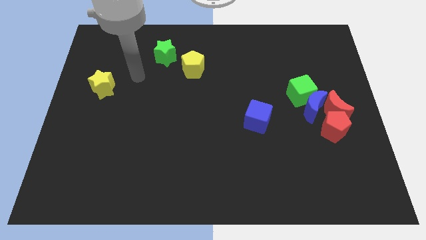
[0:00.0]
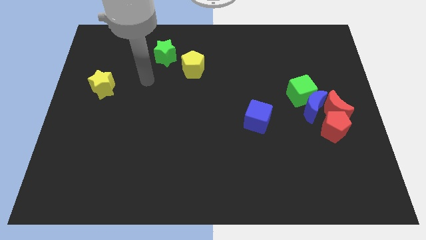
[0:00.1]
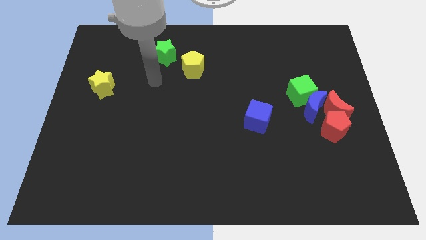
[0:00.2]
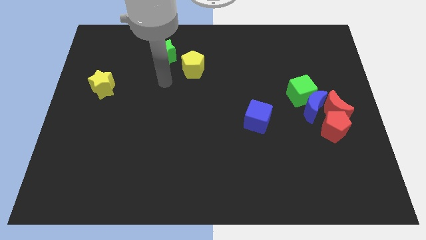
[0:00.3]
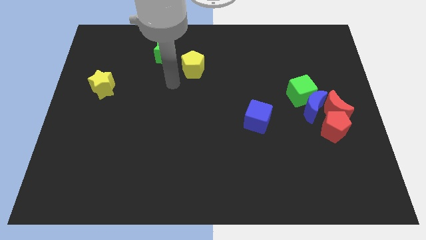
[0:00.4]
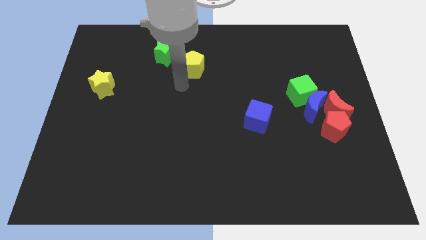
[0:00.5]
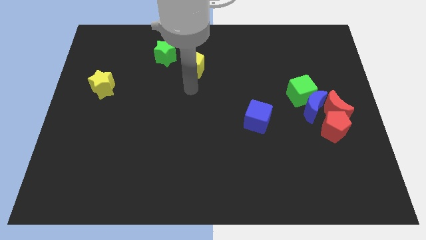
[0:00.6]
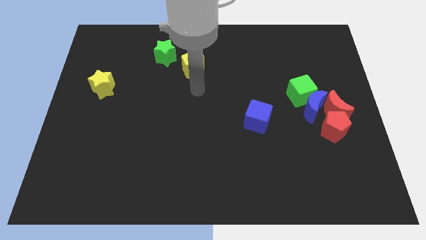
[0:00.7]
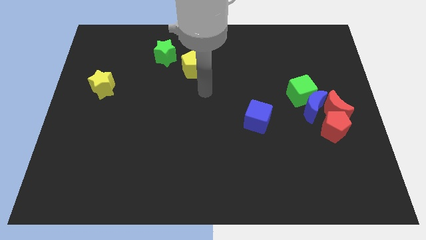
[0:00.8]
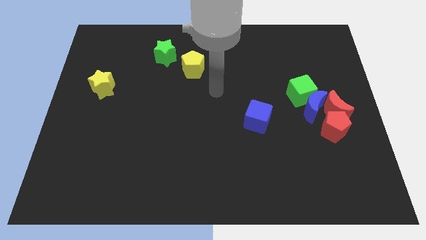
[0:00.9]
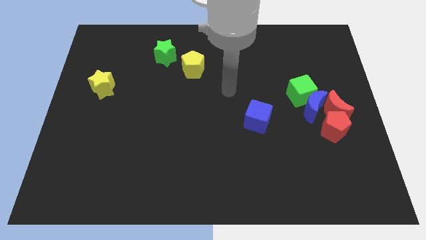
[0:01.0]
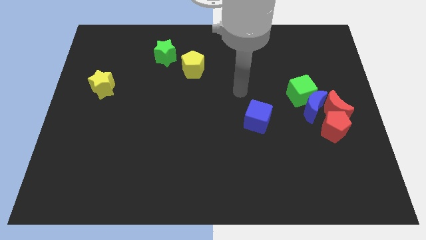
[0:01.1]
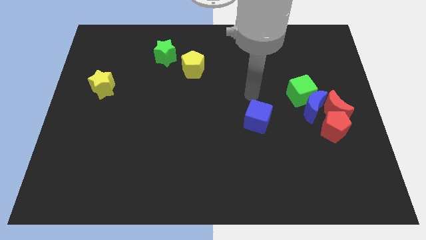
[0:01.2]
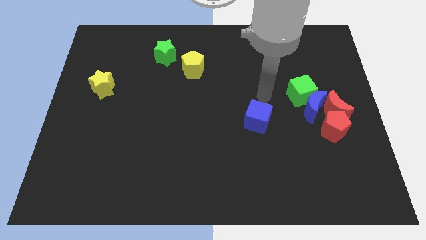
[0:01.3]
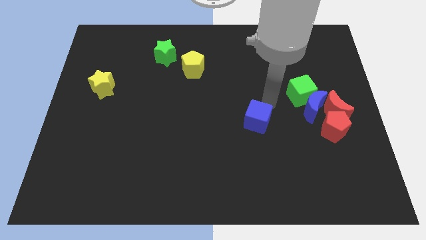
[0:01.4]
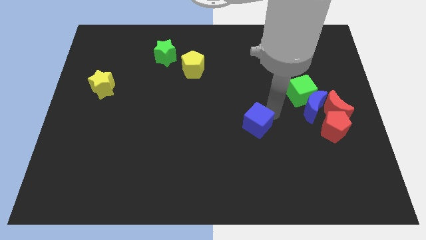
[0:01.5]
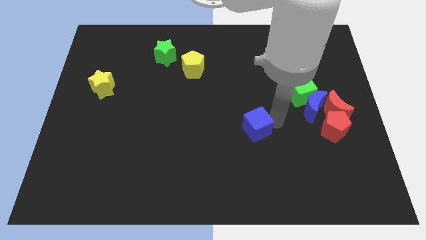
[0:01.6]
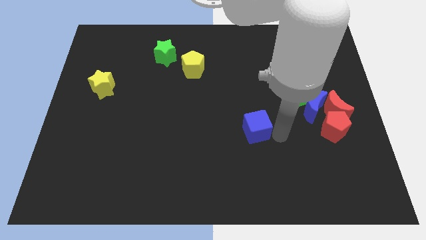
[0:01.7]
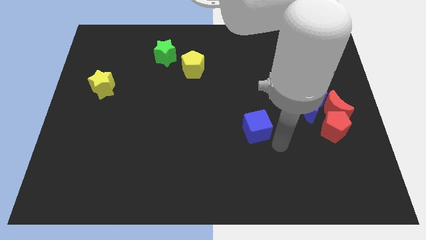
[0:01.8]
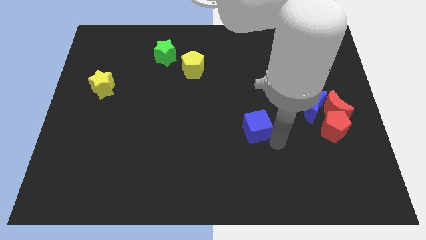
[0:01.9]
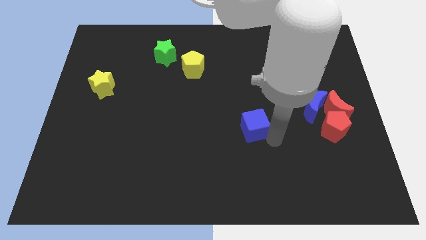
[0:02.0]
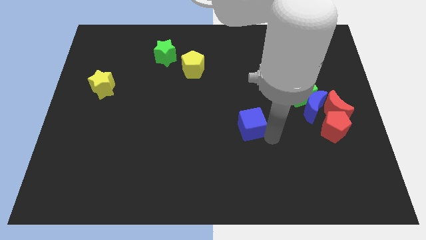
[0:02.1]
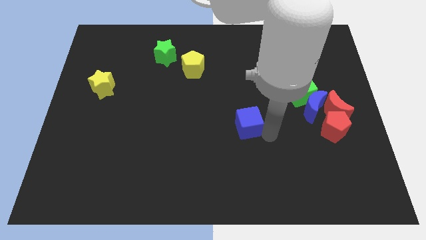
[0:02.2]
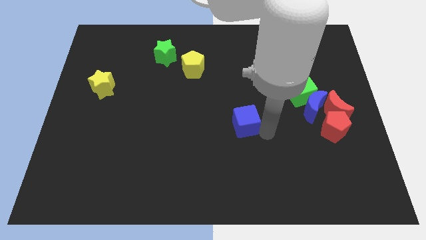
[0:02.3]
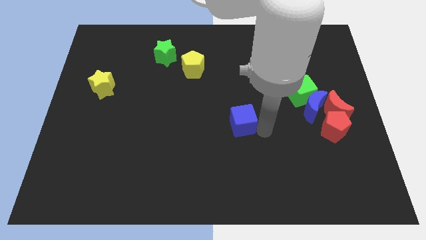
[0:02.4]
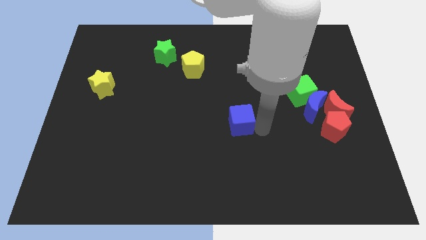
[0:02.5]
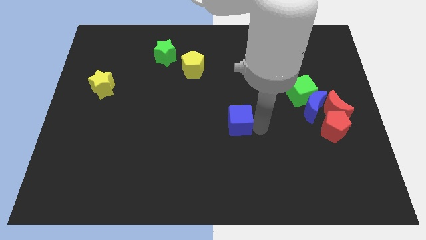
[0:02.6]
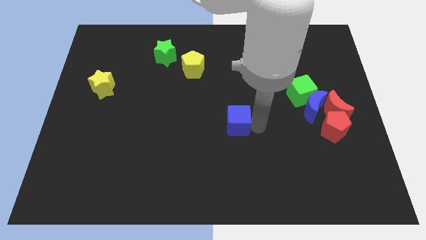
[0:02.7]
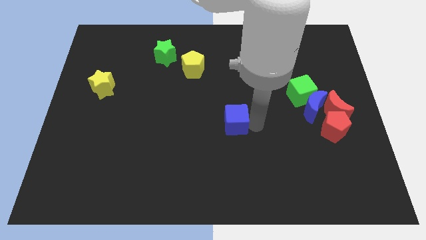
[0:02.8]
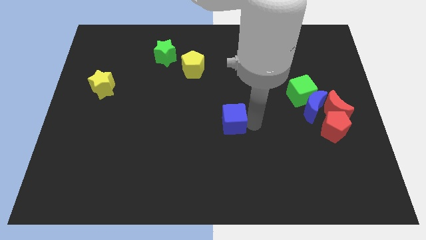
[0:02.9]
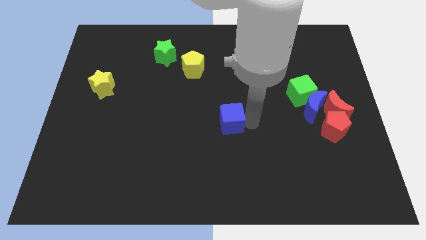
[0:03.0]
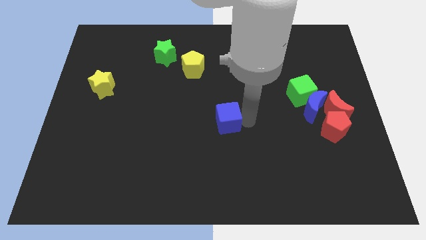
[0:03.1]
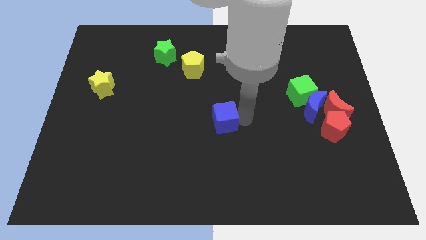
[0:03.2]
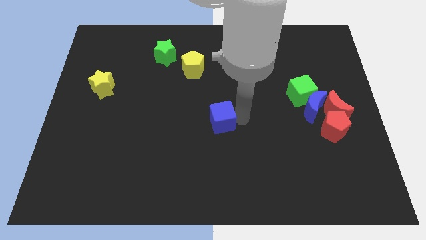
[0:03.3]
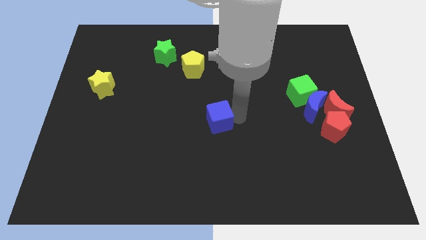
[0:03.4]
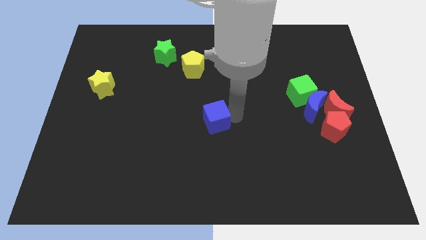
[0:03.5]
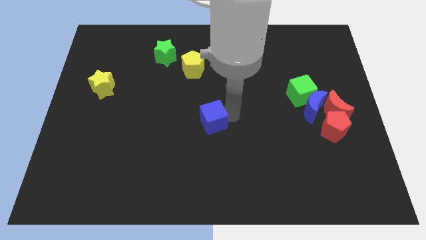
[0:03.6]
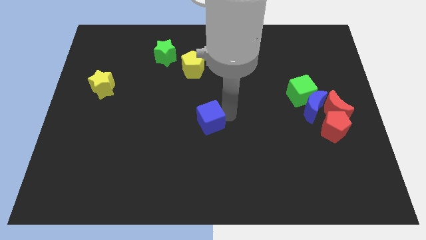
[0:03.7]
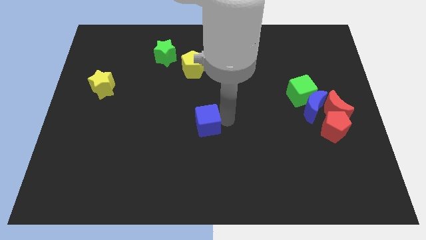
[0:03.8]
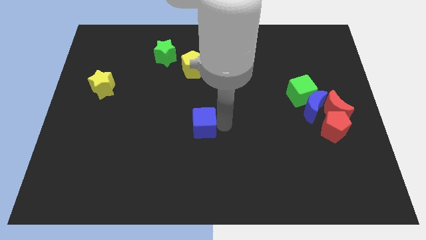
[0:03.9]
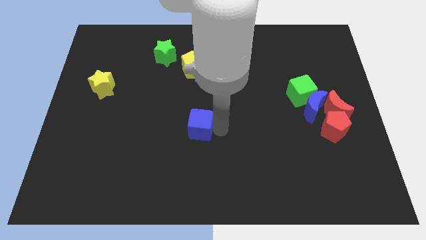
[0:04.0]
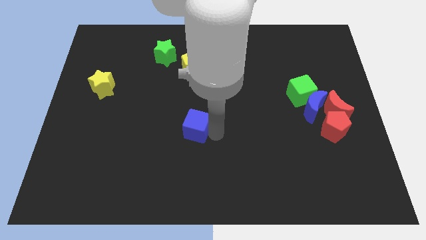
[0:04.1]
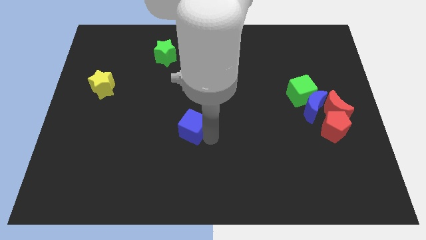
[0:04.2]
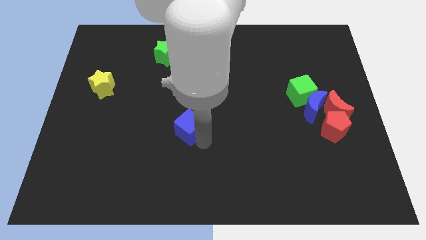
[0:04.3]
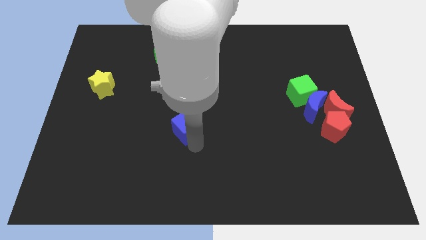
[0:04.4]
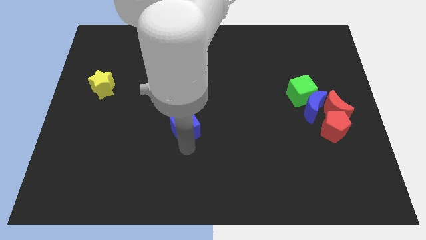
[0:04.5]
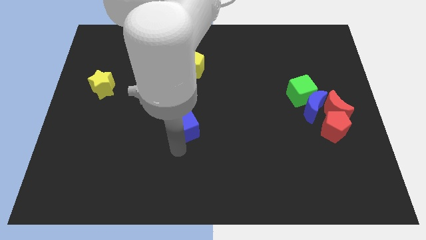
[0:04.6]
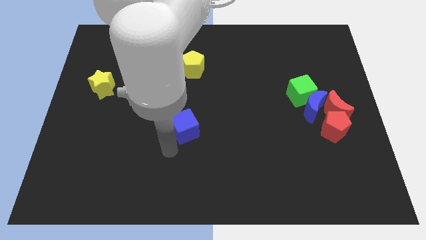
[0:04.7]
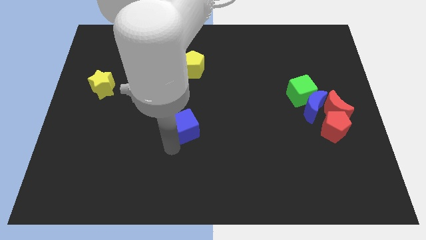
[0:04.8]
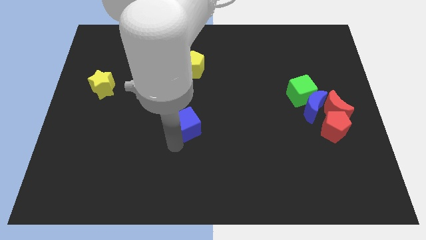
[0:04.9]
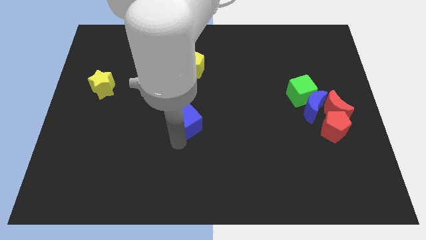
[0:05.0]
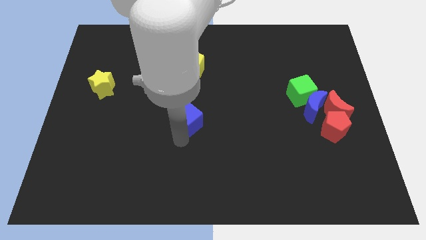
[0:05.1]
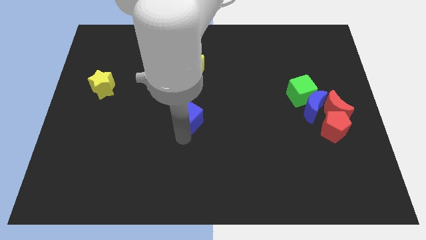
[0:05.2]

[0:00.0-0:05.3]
push the blue cube to the bottom of the yellow pentagon

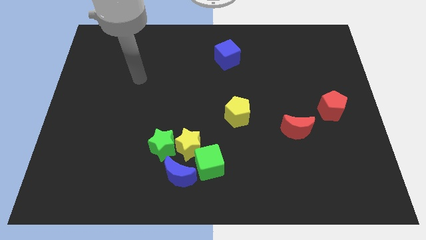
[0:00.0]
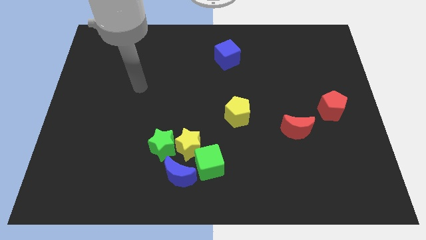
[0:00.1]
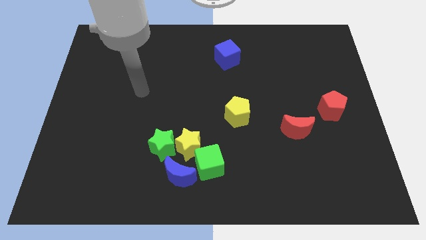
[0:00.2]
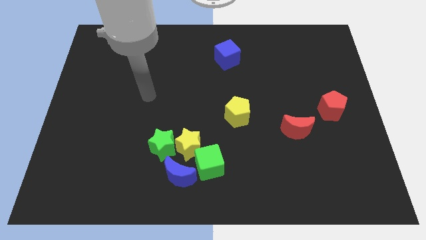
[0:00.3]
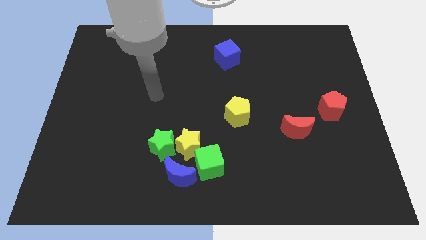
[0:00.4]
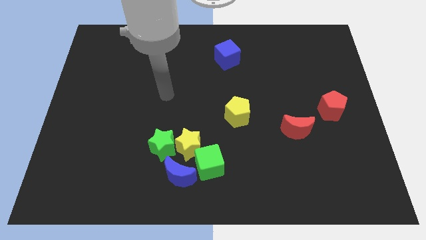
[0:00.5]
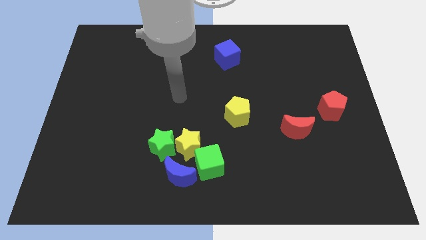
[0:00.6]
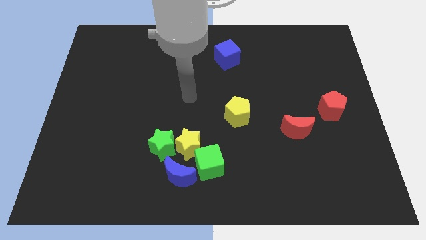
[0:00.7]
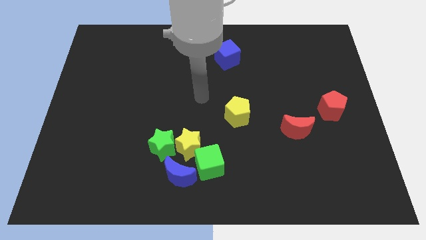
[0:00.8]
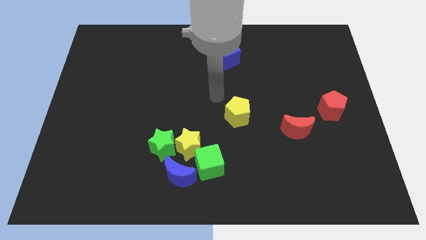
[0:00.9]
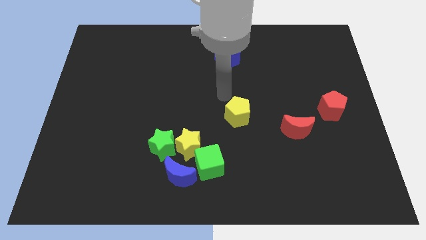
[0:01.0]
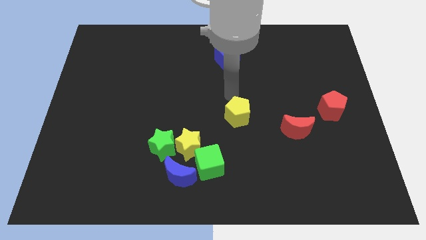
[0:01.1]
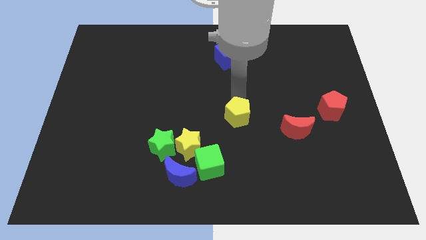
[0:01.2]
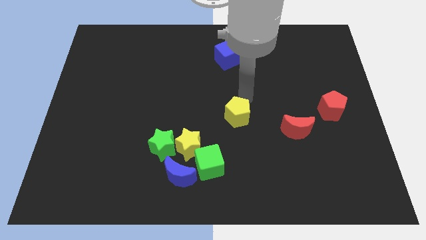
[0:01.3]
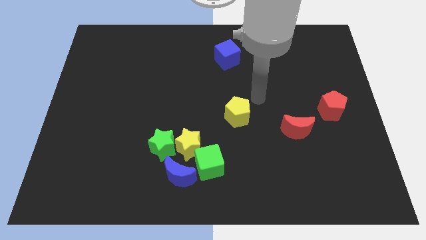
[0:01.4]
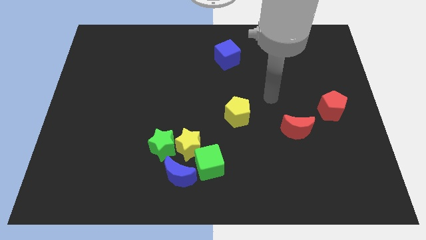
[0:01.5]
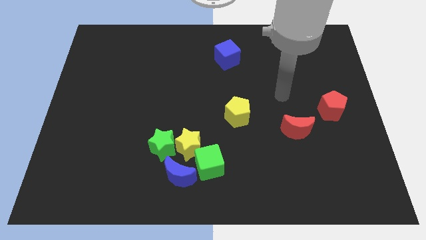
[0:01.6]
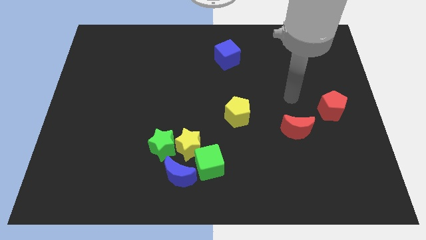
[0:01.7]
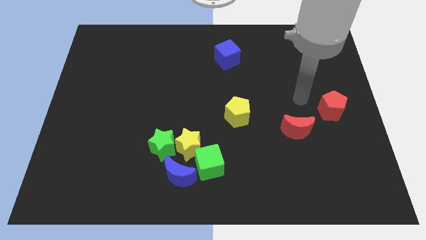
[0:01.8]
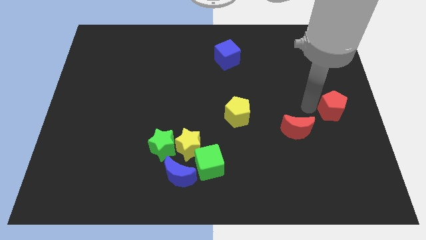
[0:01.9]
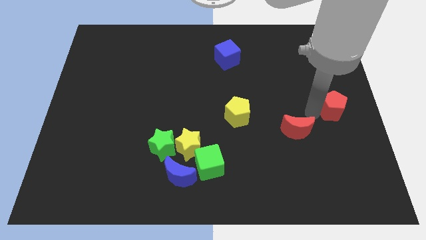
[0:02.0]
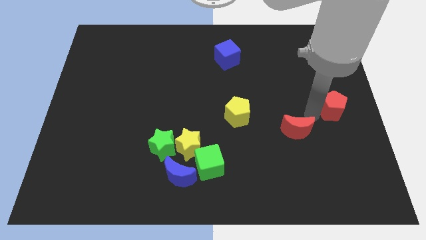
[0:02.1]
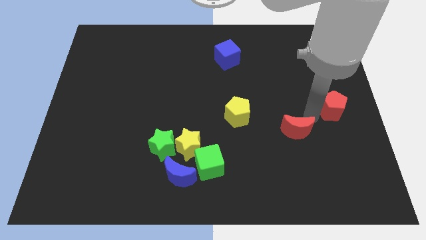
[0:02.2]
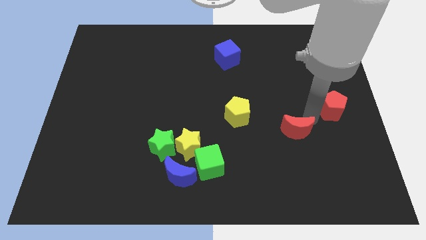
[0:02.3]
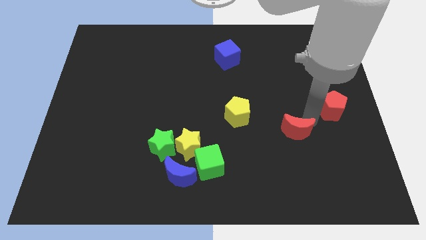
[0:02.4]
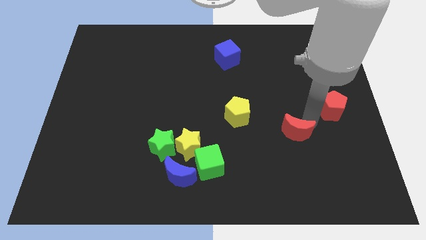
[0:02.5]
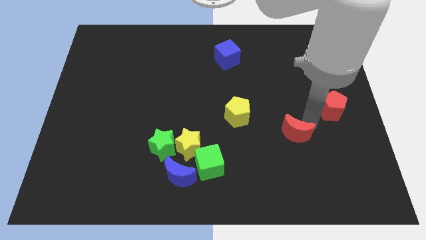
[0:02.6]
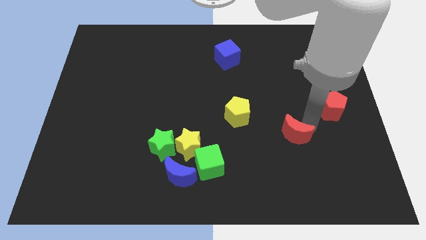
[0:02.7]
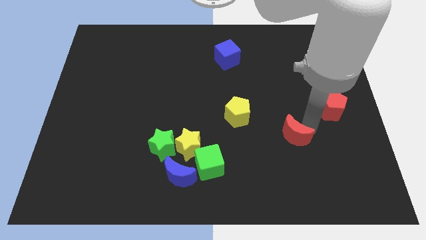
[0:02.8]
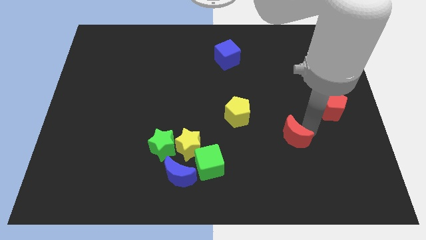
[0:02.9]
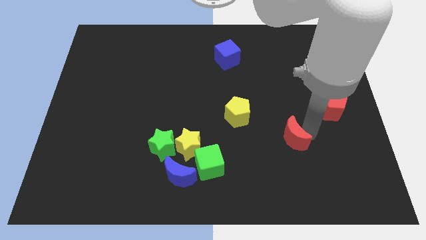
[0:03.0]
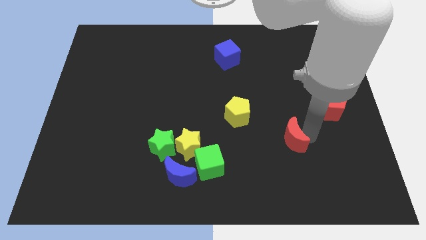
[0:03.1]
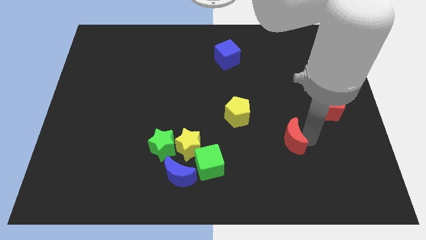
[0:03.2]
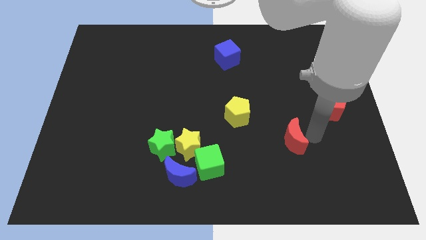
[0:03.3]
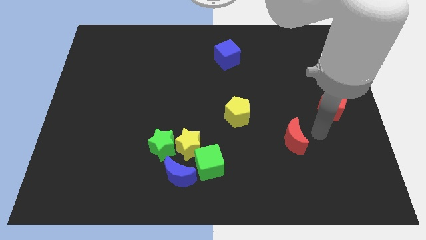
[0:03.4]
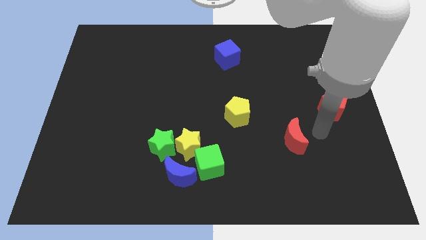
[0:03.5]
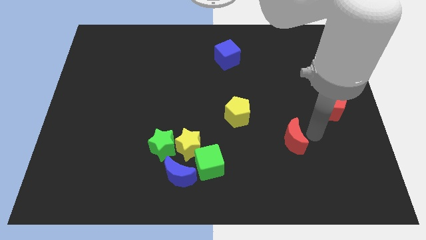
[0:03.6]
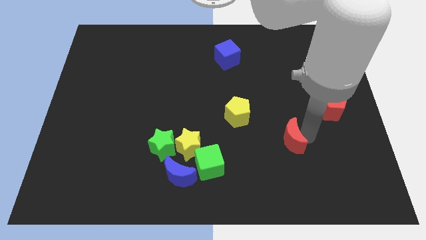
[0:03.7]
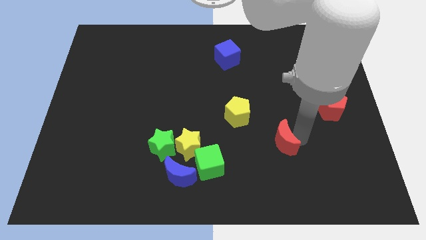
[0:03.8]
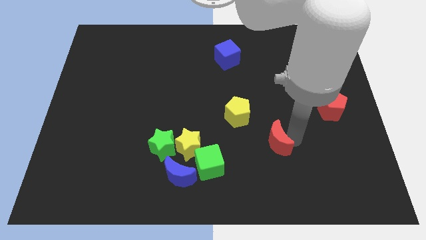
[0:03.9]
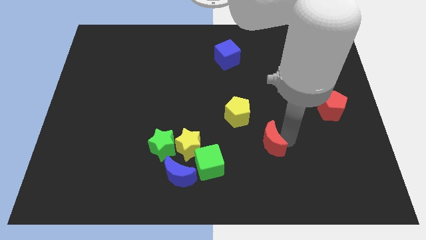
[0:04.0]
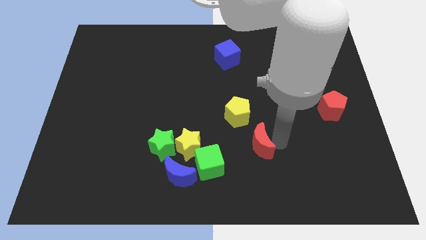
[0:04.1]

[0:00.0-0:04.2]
put the red moon to the right side of the yellow star
